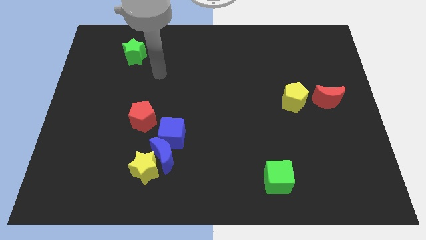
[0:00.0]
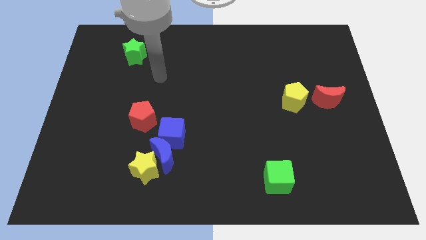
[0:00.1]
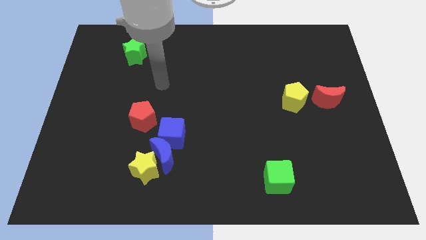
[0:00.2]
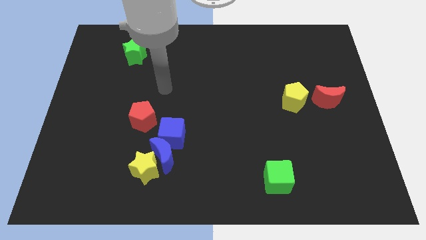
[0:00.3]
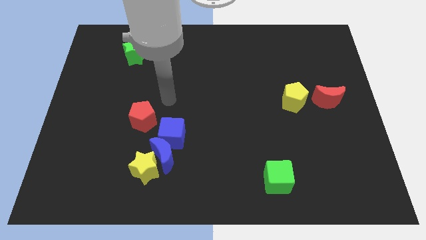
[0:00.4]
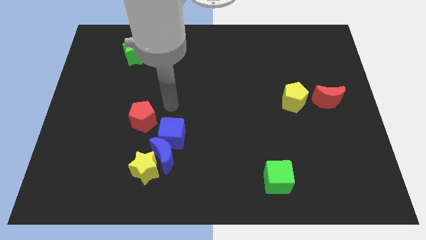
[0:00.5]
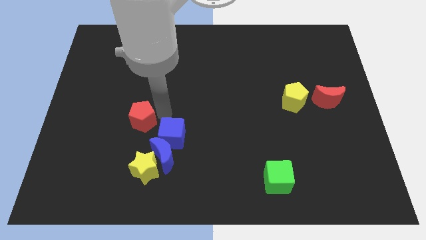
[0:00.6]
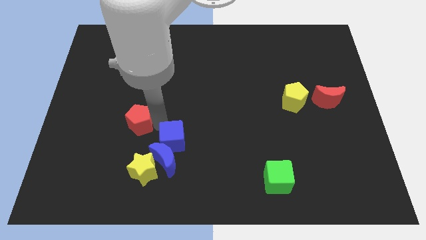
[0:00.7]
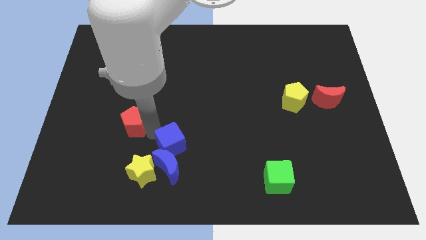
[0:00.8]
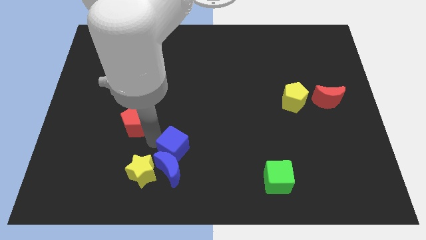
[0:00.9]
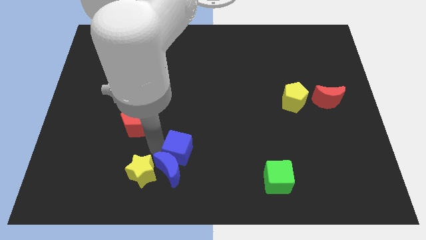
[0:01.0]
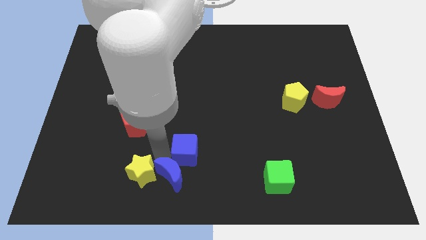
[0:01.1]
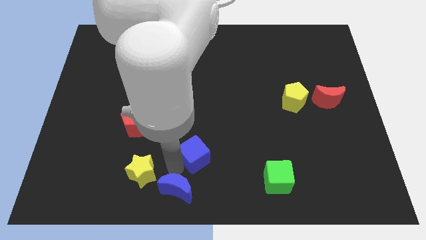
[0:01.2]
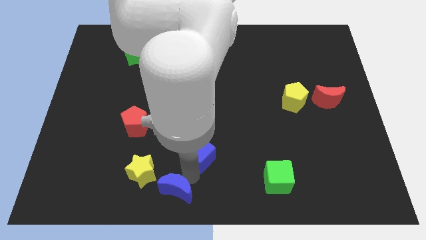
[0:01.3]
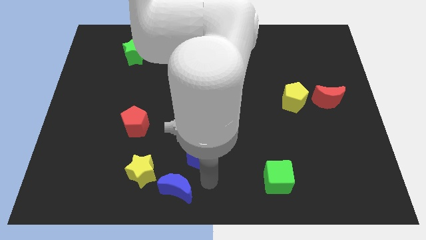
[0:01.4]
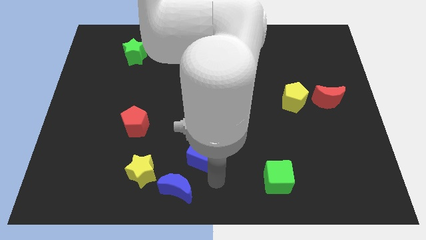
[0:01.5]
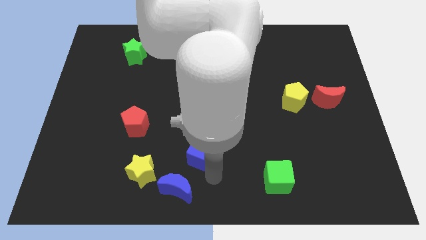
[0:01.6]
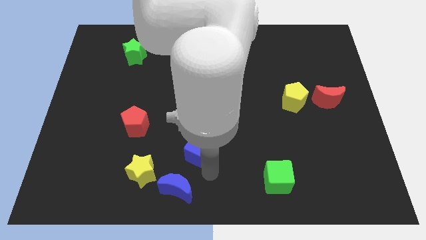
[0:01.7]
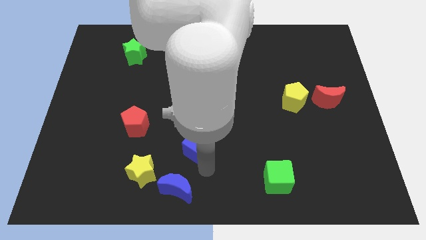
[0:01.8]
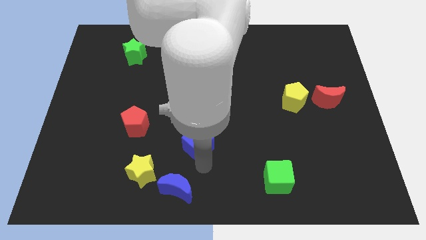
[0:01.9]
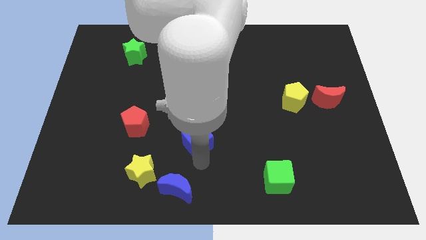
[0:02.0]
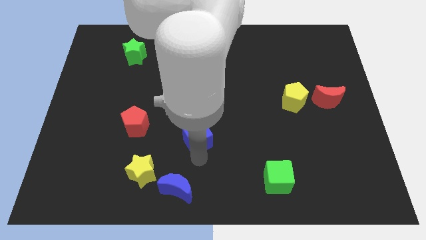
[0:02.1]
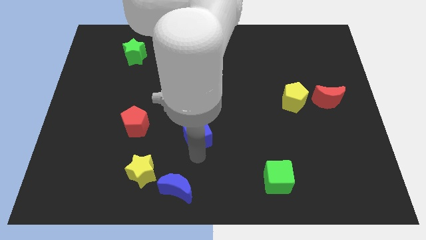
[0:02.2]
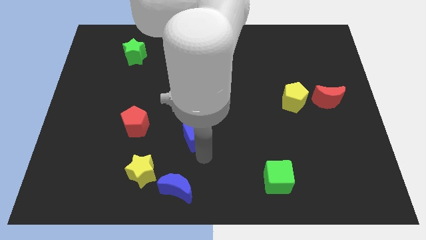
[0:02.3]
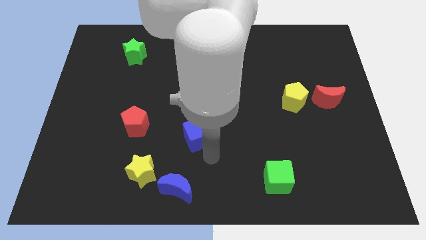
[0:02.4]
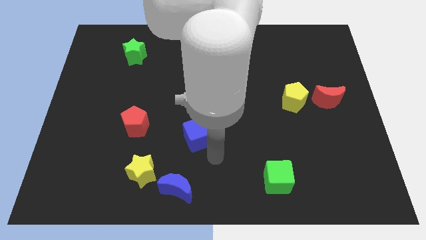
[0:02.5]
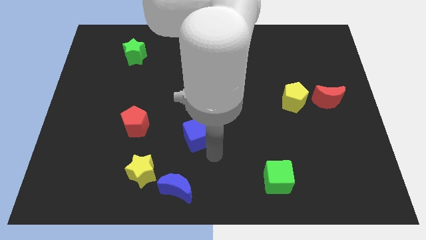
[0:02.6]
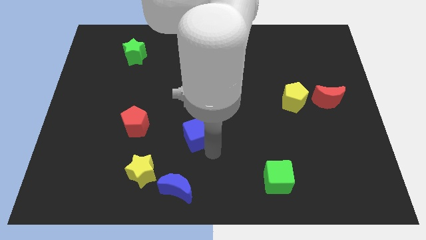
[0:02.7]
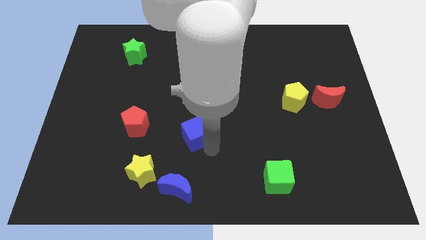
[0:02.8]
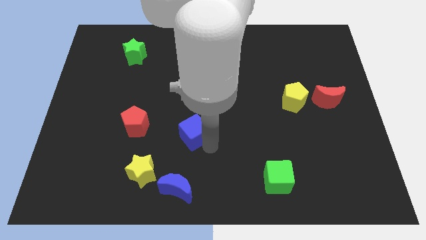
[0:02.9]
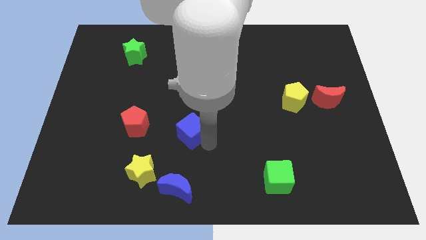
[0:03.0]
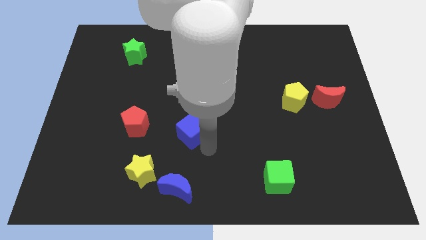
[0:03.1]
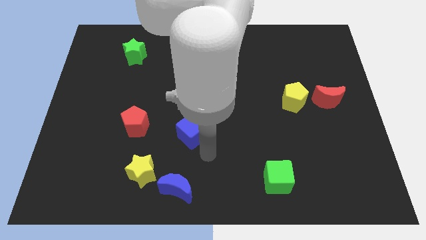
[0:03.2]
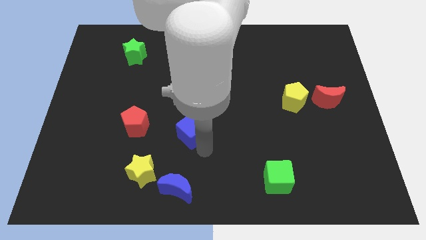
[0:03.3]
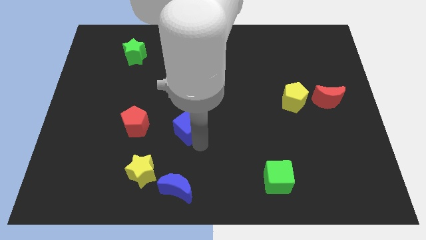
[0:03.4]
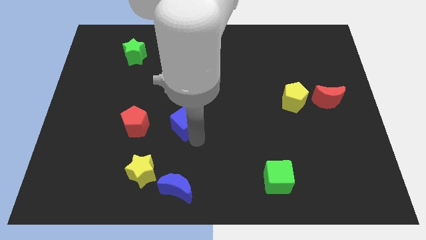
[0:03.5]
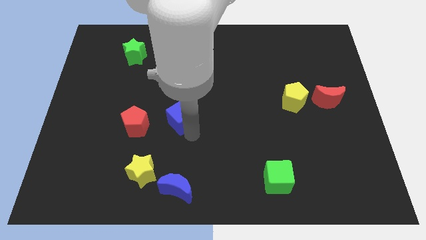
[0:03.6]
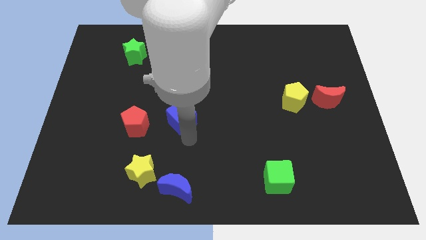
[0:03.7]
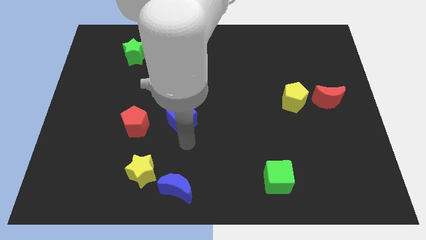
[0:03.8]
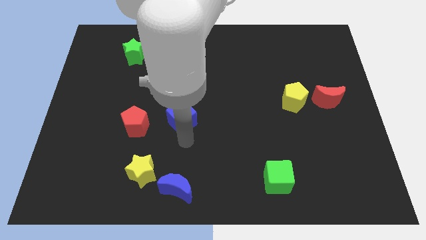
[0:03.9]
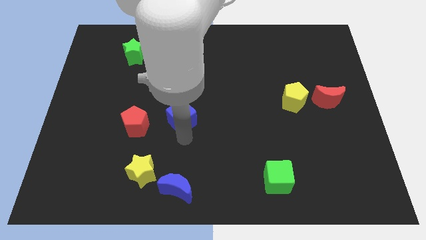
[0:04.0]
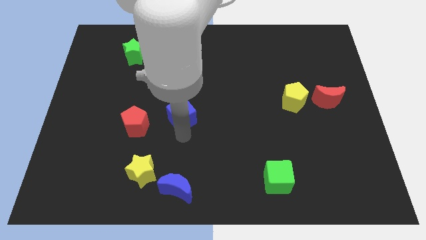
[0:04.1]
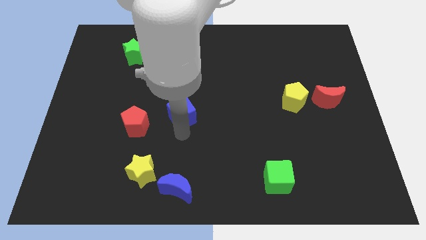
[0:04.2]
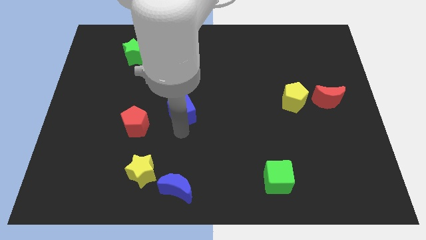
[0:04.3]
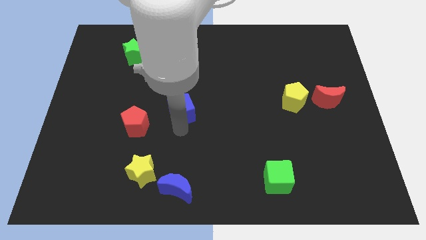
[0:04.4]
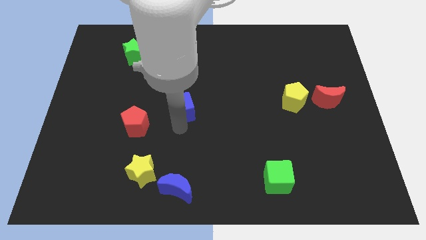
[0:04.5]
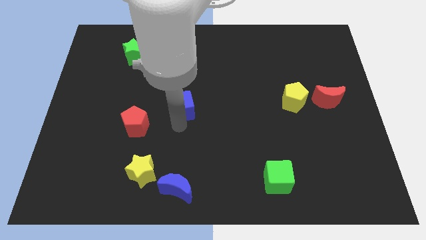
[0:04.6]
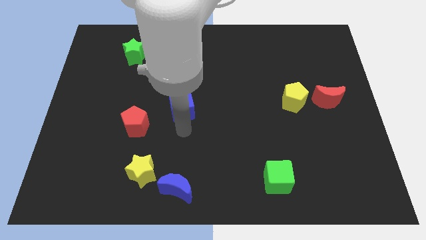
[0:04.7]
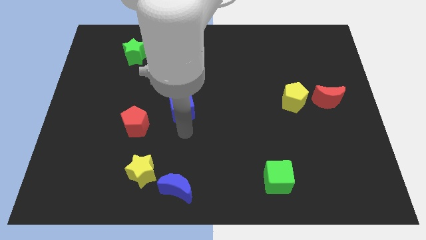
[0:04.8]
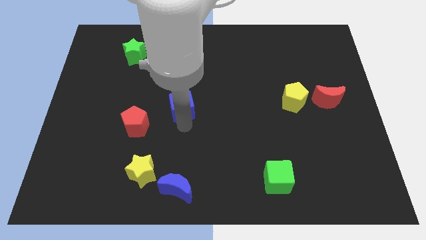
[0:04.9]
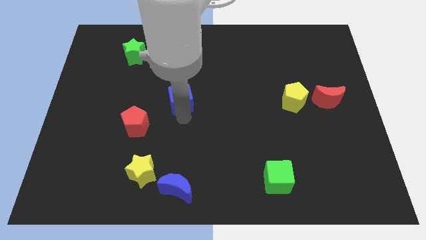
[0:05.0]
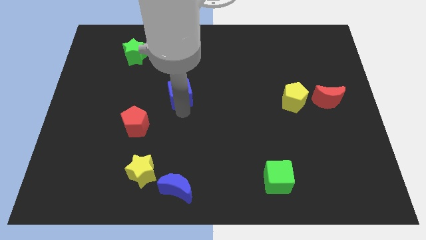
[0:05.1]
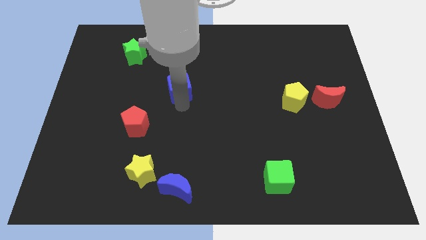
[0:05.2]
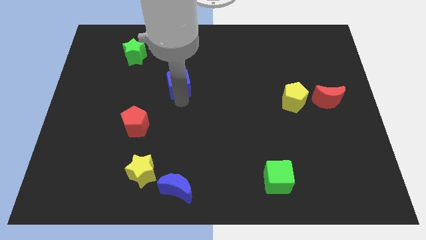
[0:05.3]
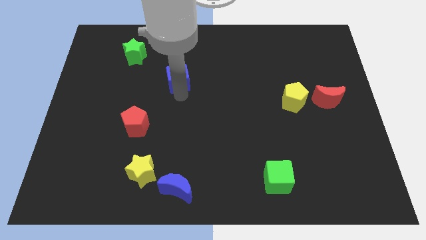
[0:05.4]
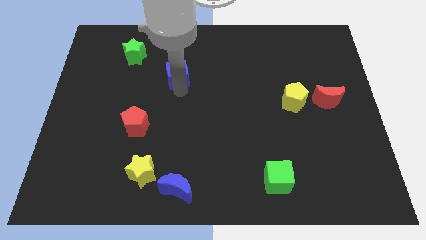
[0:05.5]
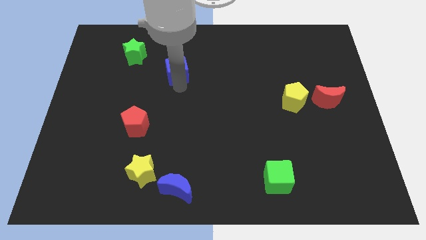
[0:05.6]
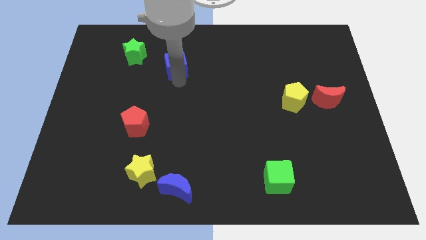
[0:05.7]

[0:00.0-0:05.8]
put the blue cube right of the green star

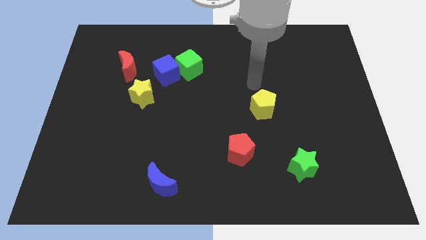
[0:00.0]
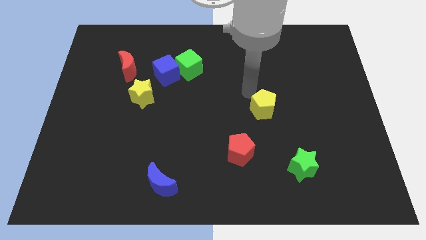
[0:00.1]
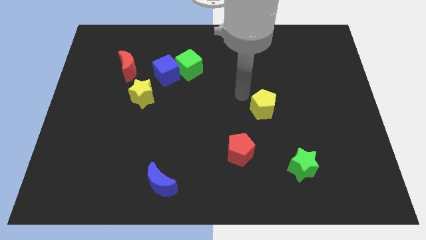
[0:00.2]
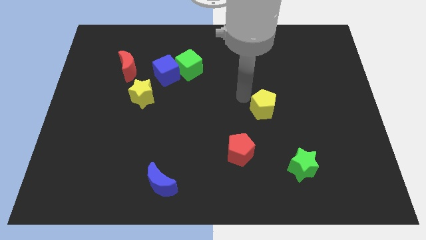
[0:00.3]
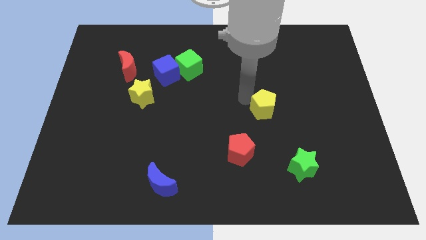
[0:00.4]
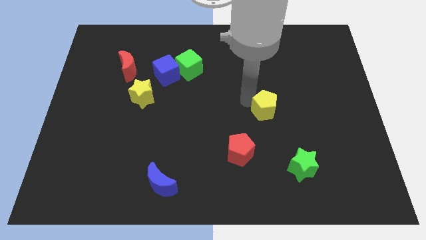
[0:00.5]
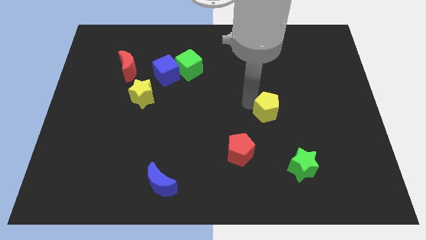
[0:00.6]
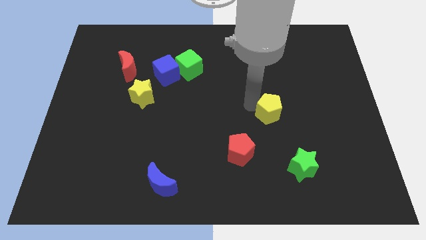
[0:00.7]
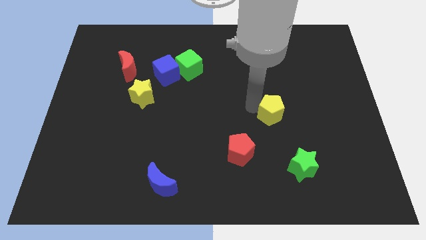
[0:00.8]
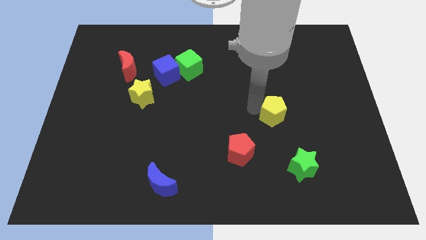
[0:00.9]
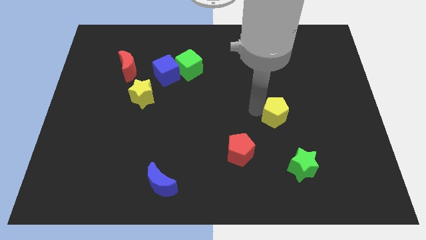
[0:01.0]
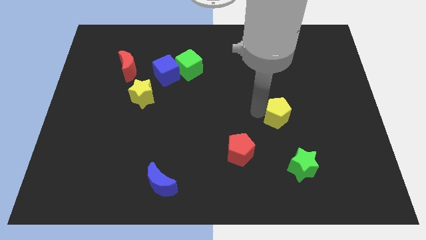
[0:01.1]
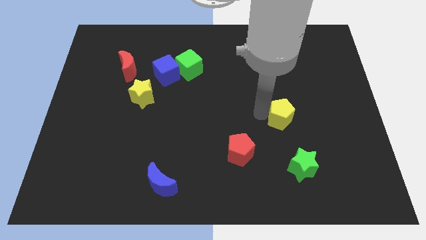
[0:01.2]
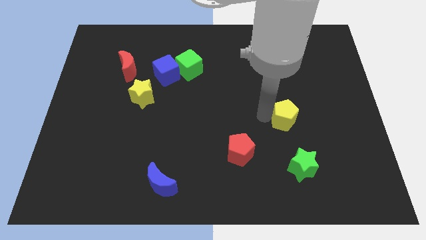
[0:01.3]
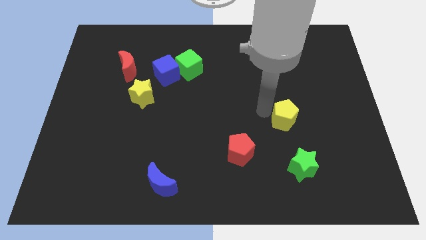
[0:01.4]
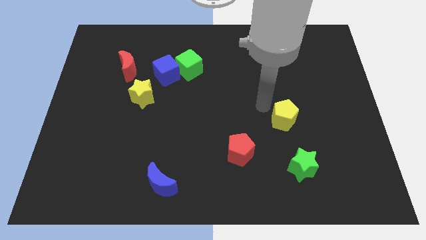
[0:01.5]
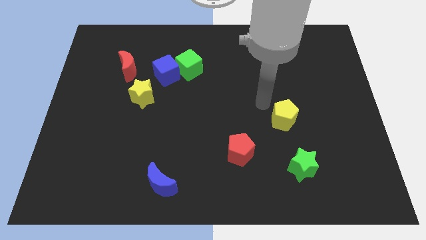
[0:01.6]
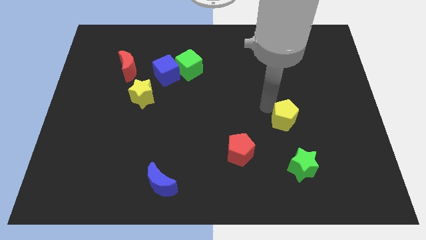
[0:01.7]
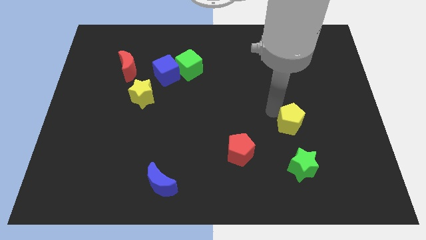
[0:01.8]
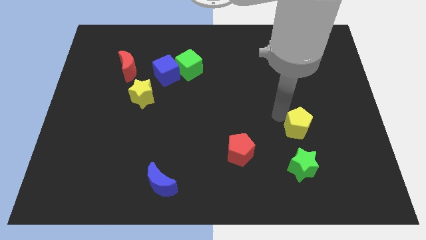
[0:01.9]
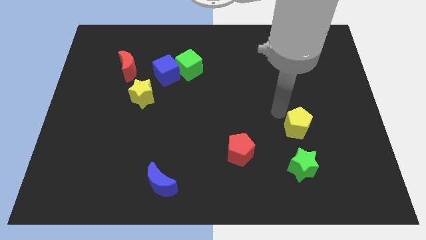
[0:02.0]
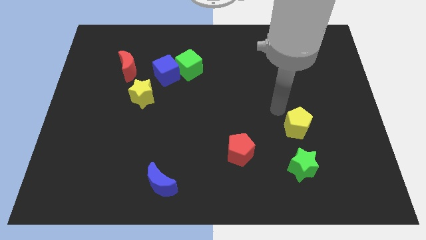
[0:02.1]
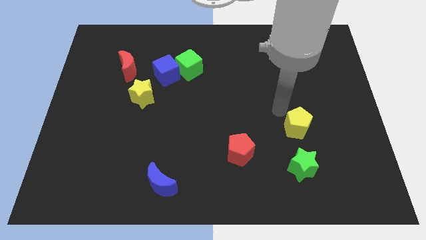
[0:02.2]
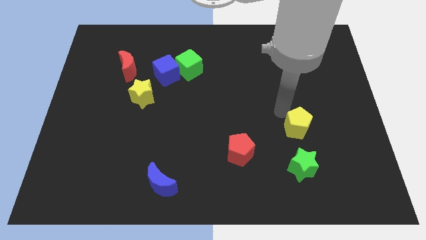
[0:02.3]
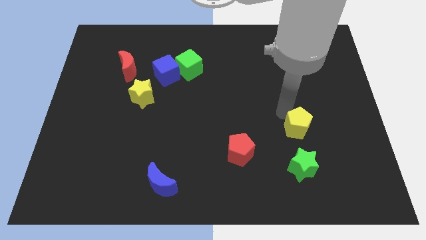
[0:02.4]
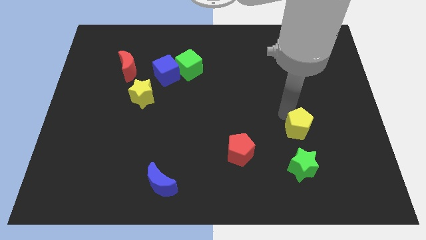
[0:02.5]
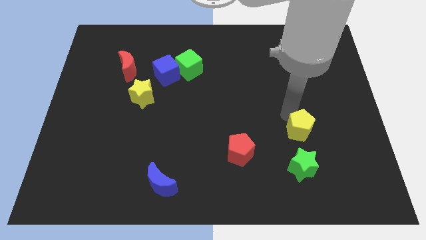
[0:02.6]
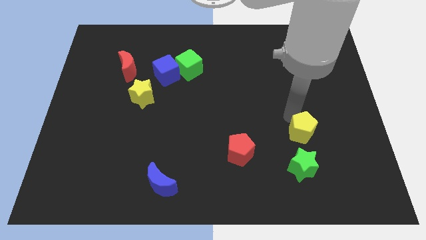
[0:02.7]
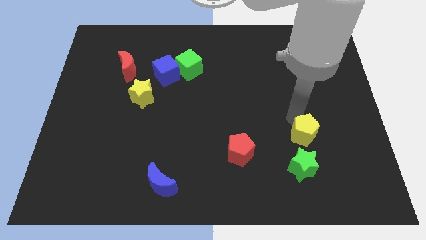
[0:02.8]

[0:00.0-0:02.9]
push the yellow pentagon to the top right side of the green star
